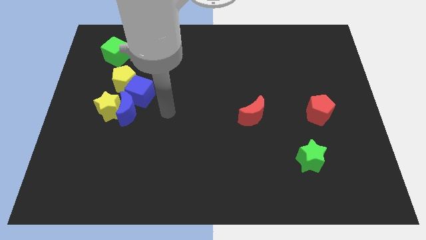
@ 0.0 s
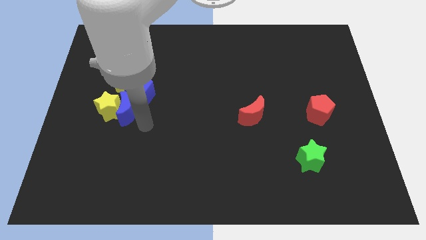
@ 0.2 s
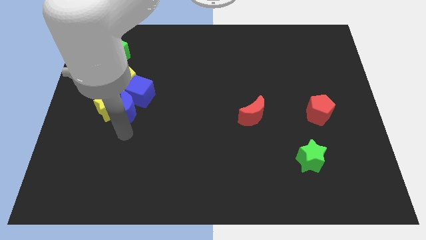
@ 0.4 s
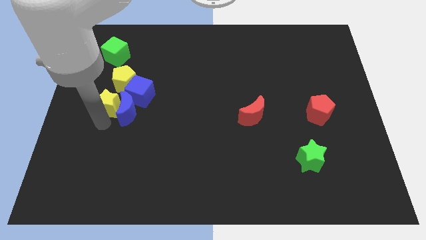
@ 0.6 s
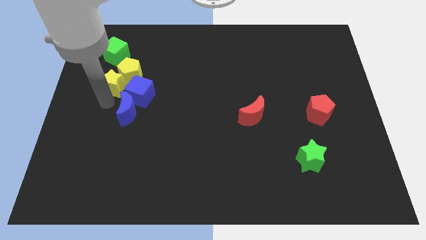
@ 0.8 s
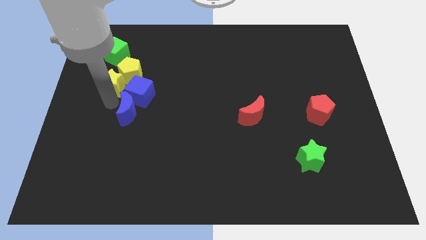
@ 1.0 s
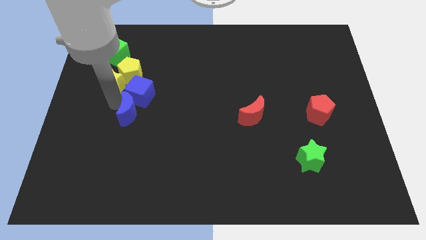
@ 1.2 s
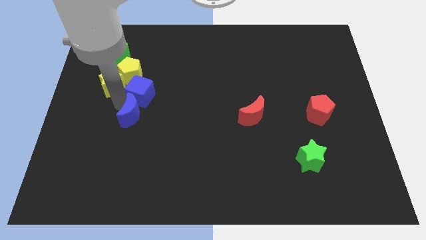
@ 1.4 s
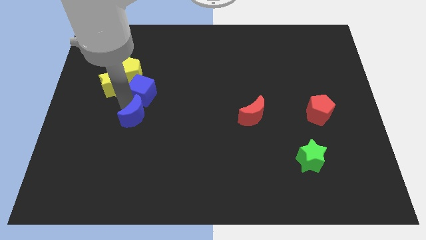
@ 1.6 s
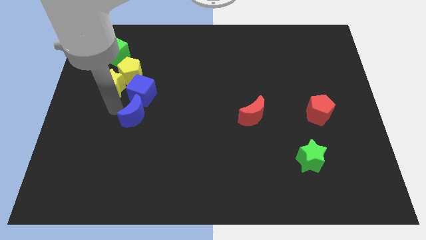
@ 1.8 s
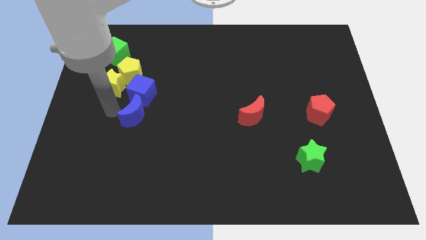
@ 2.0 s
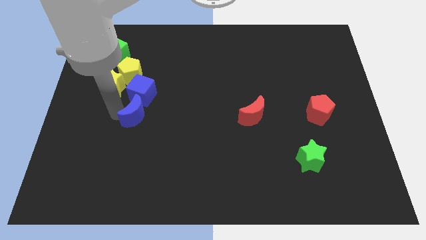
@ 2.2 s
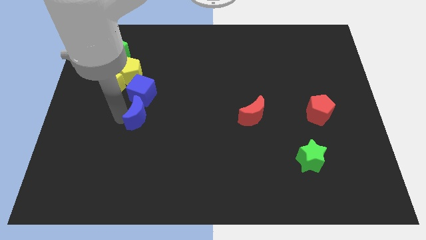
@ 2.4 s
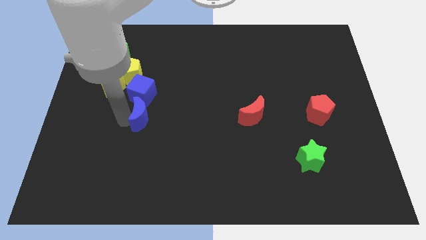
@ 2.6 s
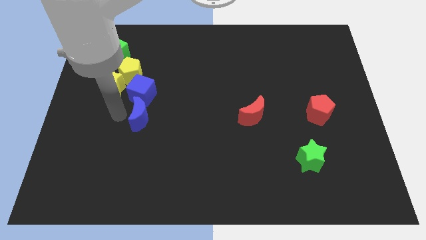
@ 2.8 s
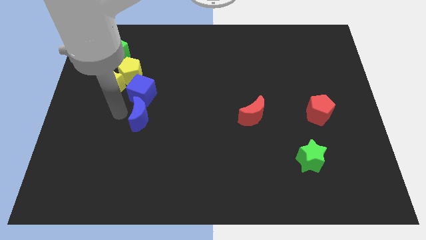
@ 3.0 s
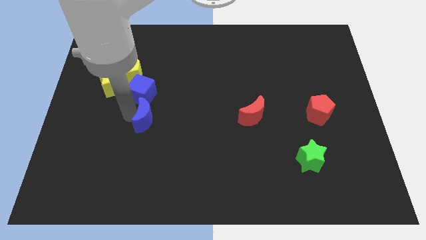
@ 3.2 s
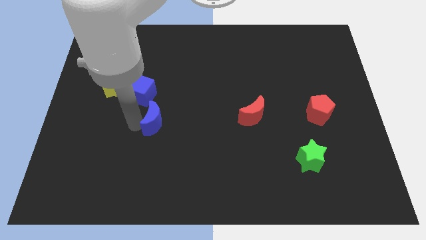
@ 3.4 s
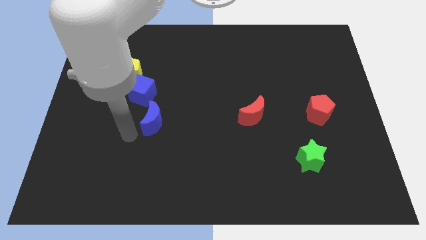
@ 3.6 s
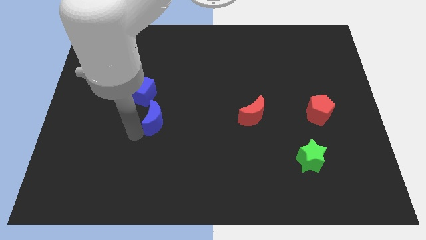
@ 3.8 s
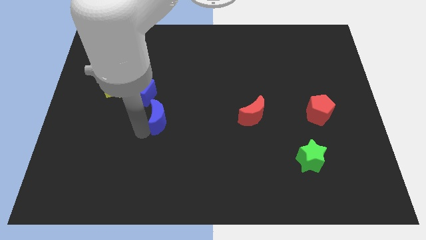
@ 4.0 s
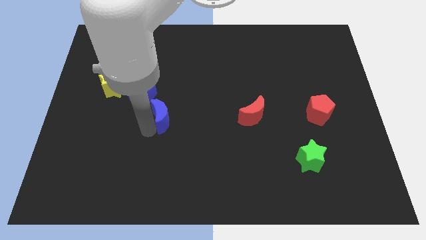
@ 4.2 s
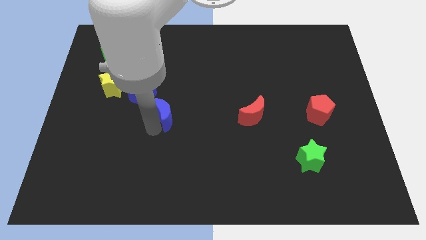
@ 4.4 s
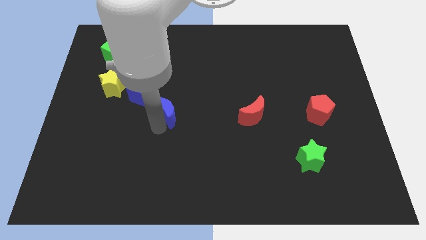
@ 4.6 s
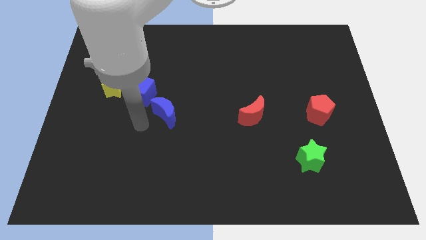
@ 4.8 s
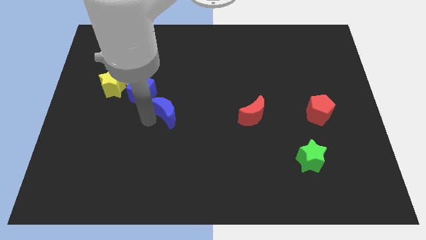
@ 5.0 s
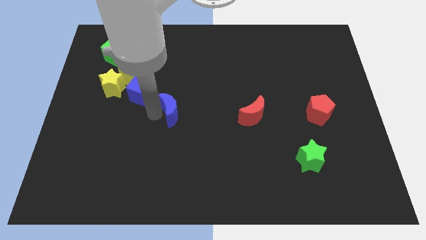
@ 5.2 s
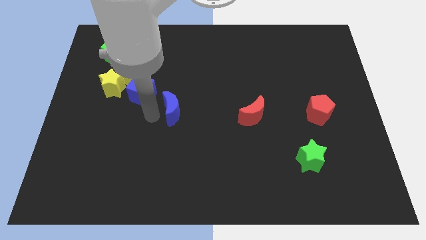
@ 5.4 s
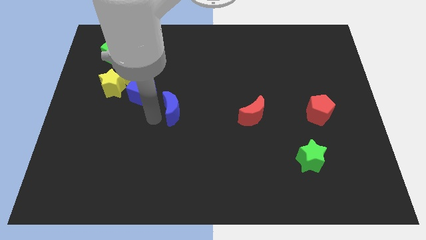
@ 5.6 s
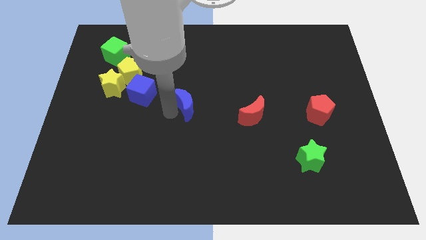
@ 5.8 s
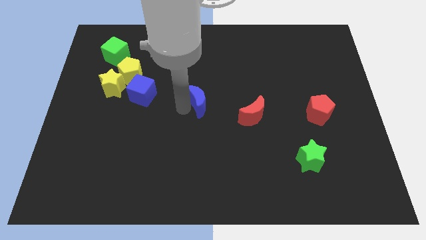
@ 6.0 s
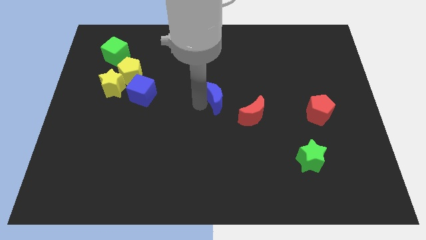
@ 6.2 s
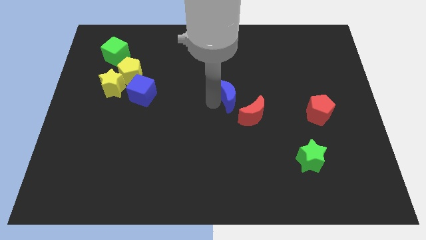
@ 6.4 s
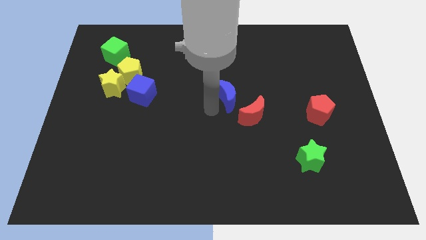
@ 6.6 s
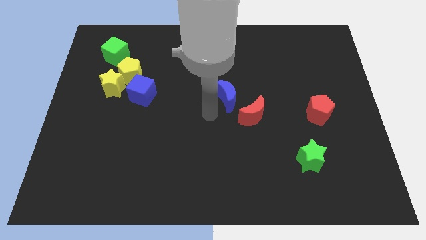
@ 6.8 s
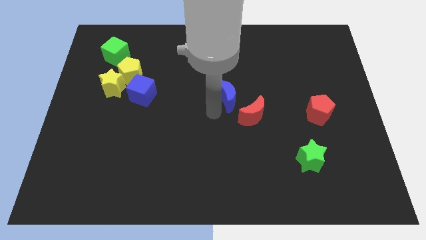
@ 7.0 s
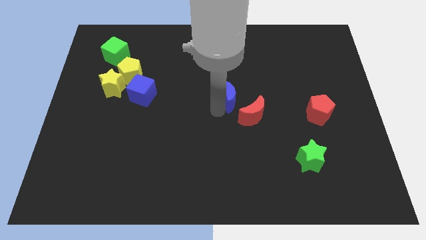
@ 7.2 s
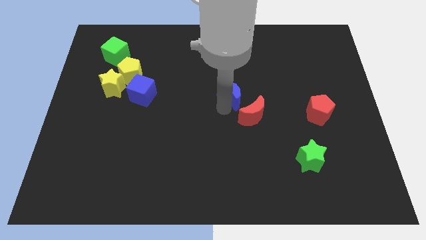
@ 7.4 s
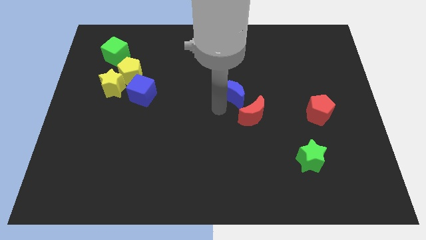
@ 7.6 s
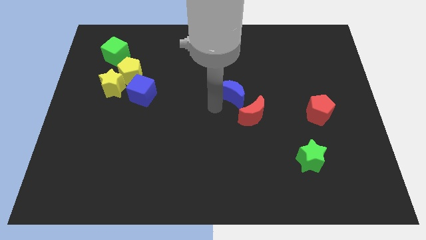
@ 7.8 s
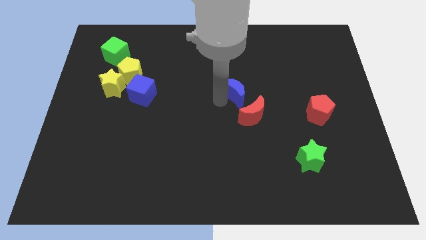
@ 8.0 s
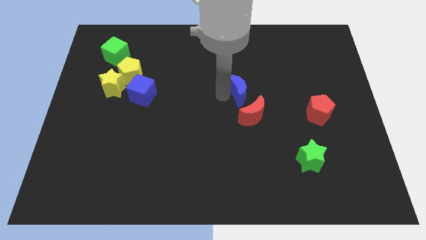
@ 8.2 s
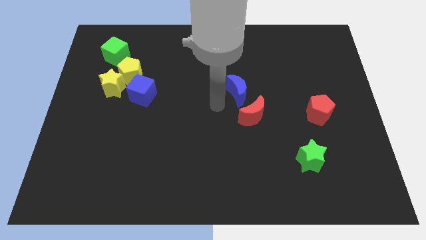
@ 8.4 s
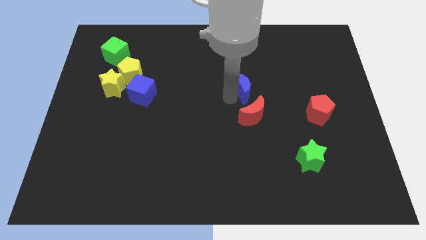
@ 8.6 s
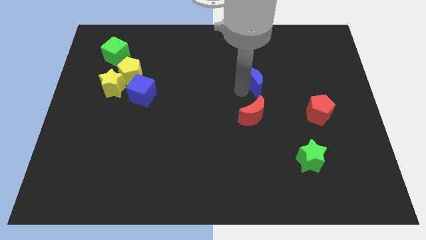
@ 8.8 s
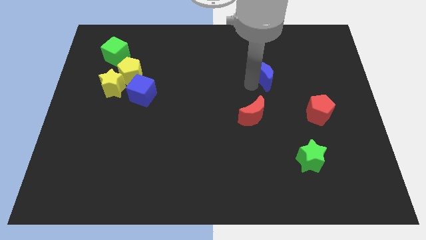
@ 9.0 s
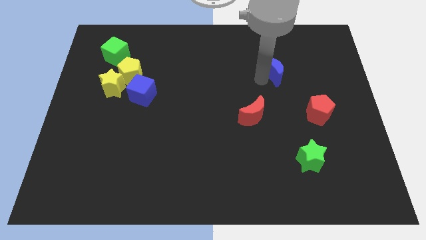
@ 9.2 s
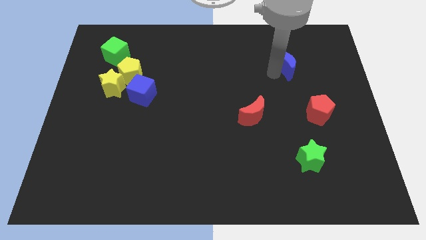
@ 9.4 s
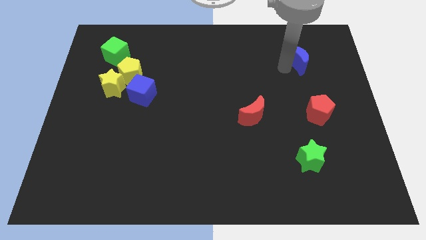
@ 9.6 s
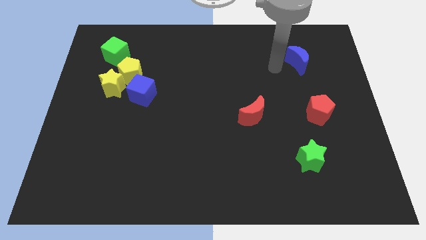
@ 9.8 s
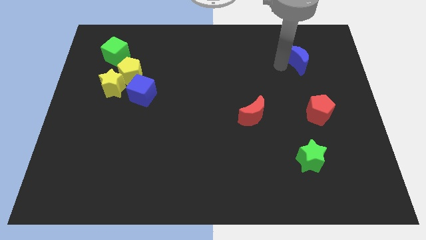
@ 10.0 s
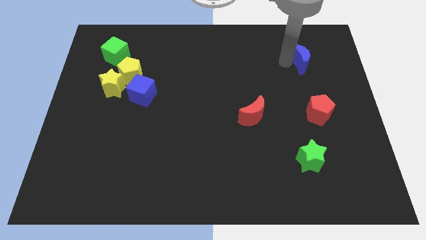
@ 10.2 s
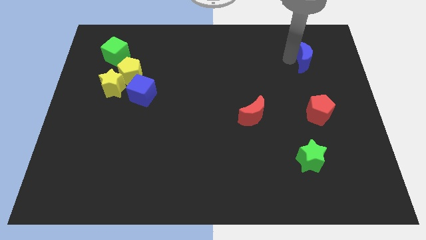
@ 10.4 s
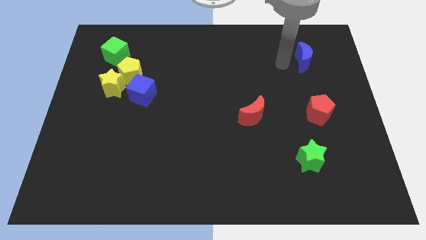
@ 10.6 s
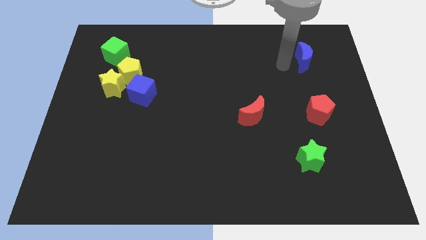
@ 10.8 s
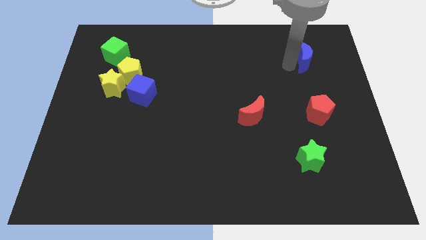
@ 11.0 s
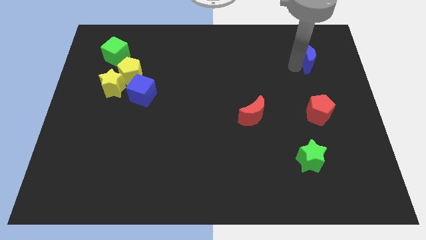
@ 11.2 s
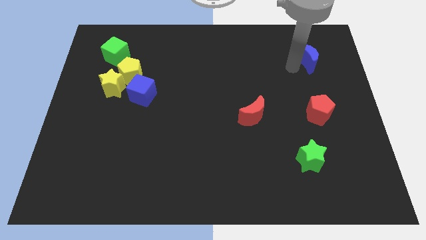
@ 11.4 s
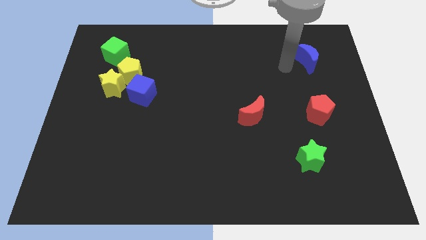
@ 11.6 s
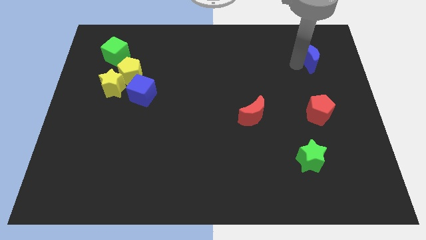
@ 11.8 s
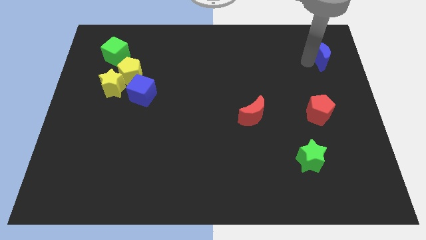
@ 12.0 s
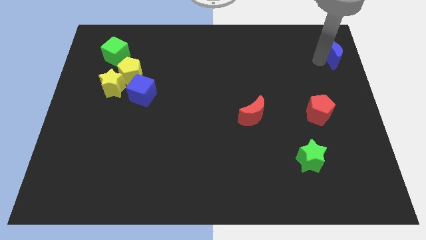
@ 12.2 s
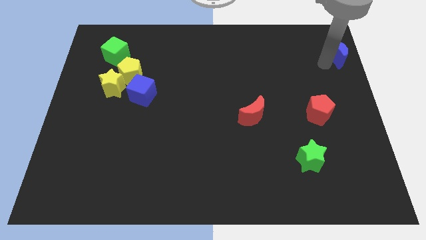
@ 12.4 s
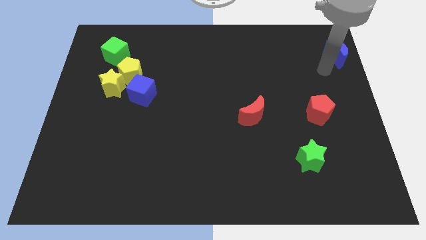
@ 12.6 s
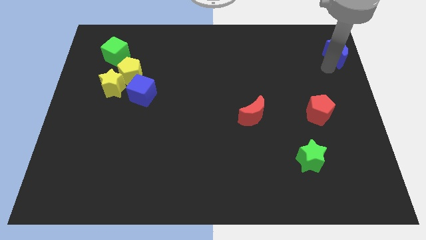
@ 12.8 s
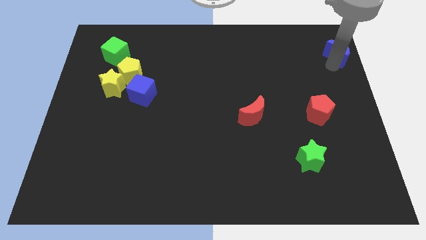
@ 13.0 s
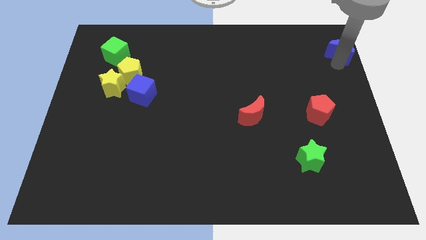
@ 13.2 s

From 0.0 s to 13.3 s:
push the blue moon to the top right
